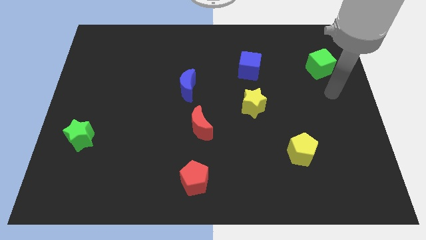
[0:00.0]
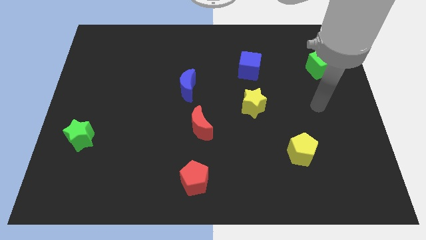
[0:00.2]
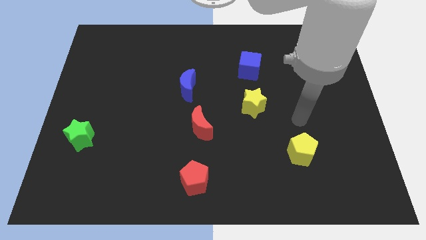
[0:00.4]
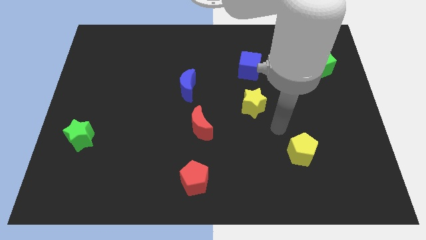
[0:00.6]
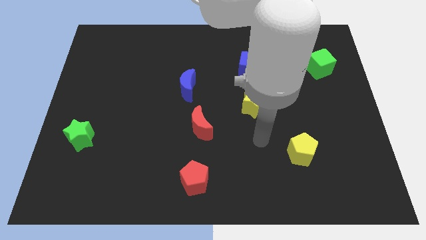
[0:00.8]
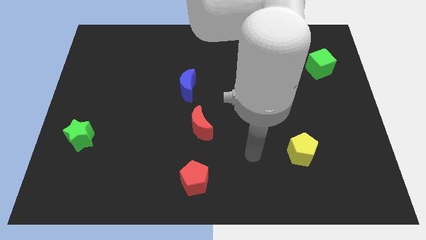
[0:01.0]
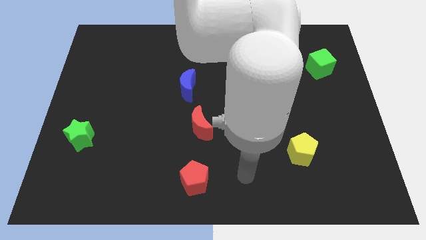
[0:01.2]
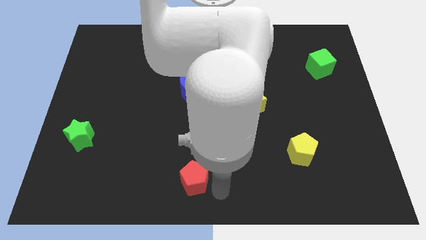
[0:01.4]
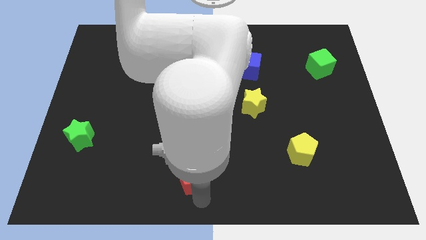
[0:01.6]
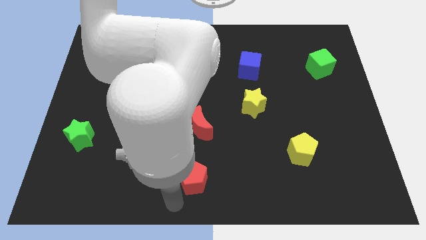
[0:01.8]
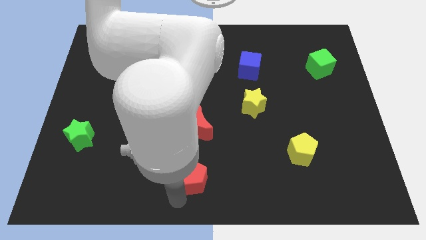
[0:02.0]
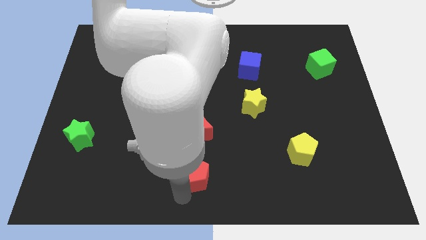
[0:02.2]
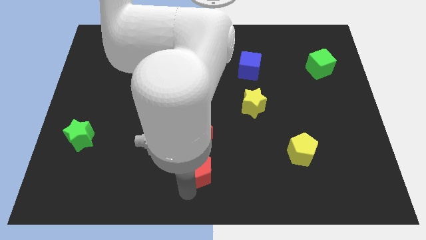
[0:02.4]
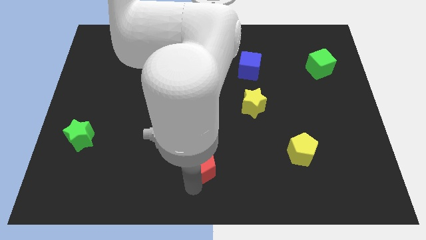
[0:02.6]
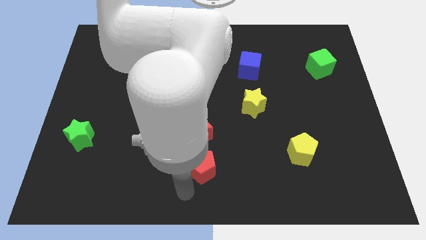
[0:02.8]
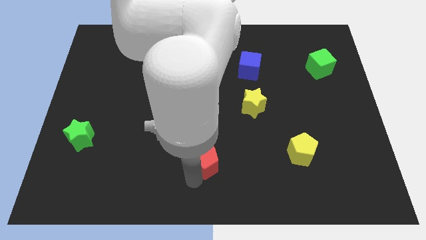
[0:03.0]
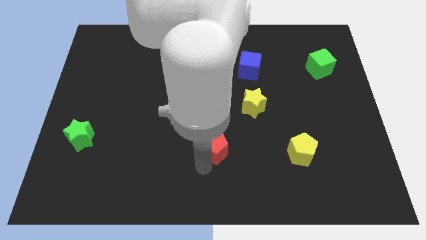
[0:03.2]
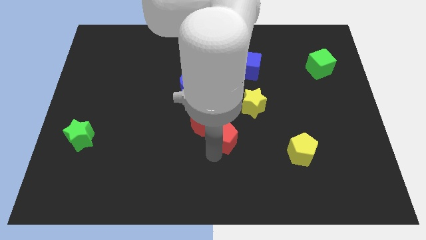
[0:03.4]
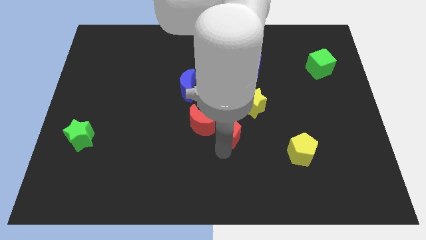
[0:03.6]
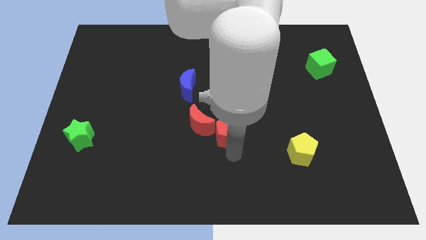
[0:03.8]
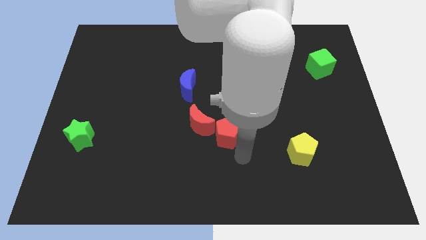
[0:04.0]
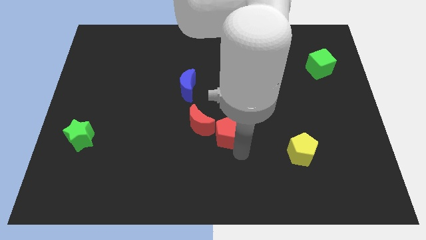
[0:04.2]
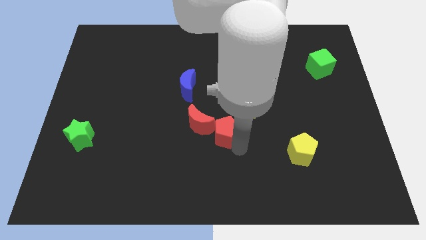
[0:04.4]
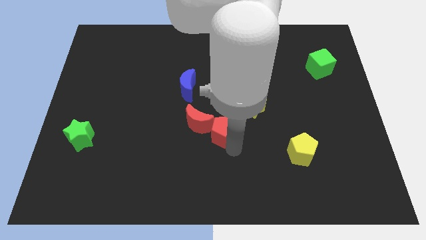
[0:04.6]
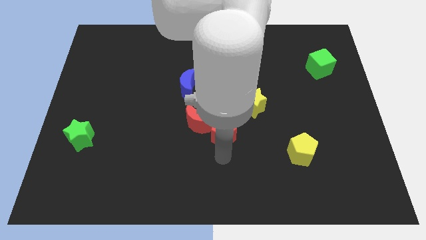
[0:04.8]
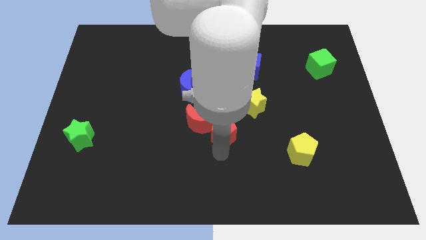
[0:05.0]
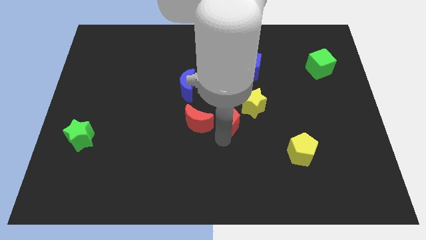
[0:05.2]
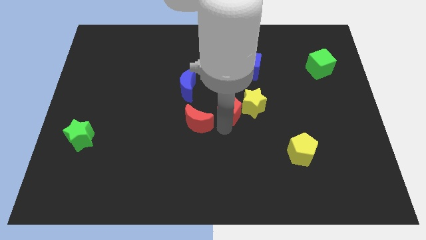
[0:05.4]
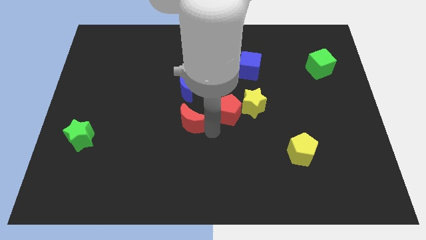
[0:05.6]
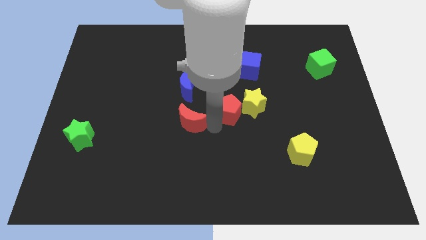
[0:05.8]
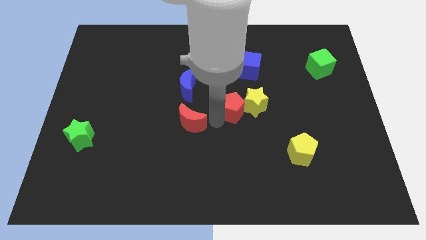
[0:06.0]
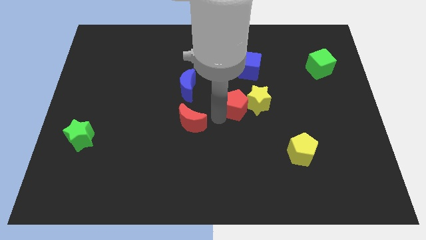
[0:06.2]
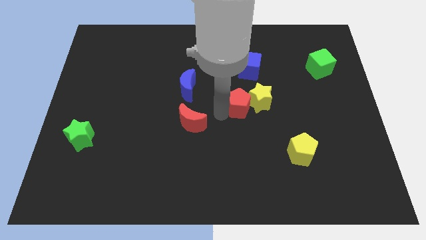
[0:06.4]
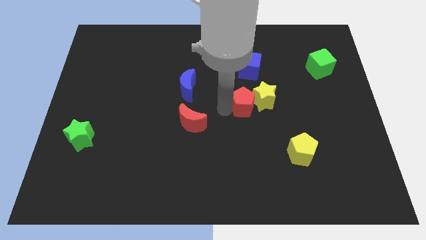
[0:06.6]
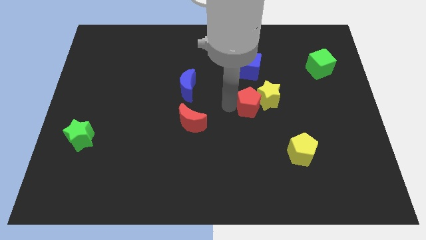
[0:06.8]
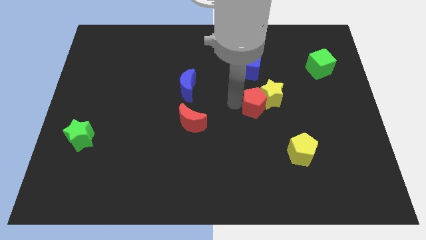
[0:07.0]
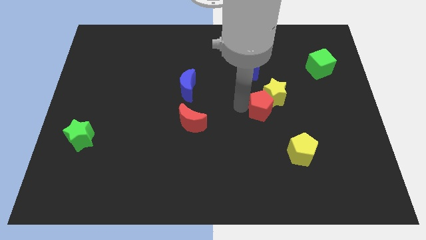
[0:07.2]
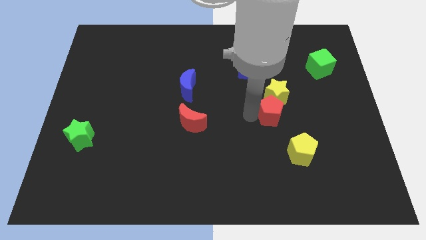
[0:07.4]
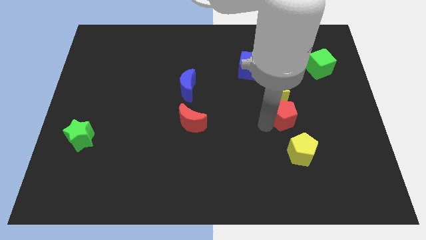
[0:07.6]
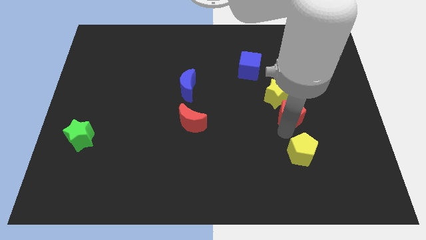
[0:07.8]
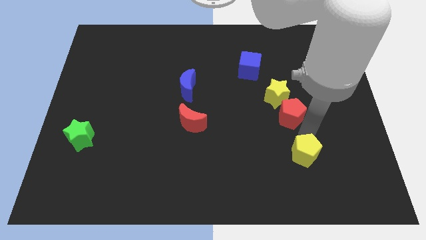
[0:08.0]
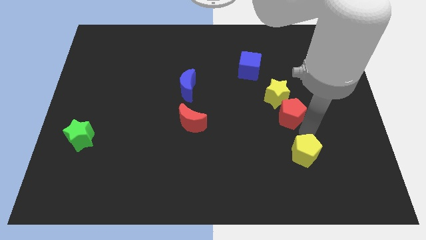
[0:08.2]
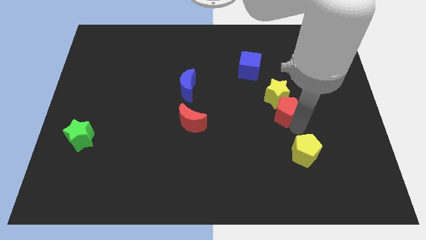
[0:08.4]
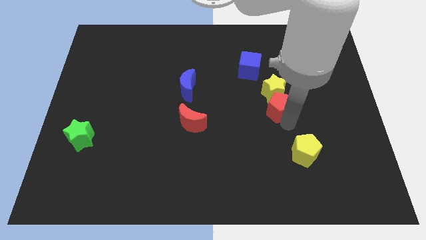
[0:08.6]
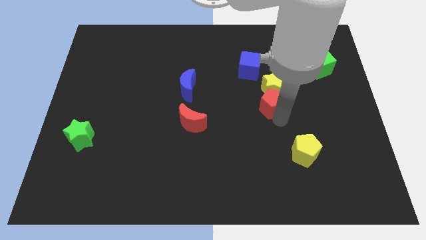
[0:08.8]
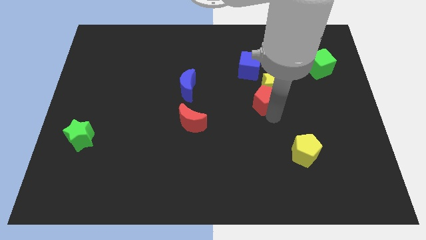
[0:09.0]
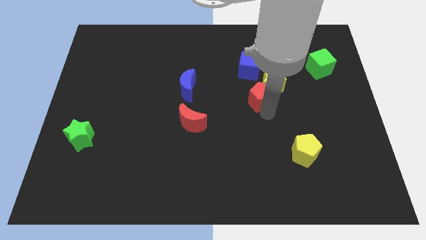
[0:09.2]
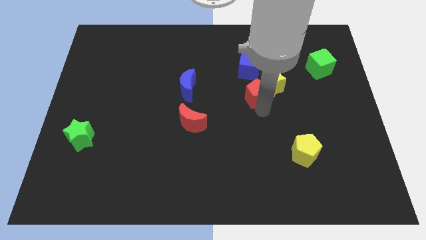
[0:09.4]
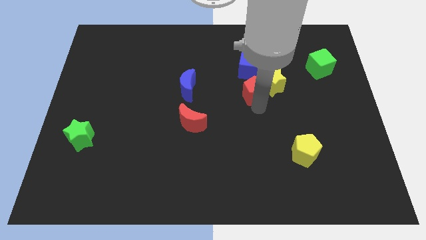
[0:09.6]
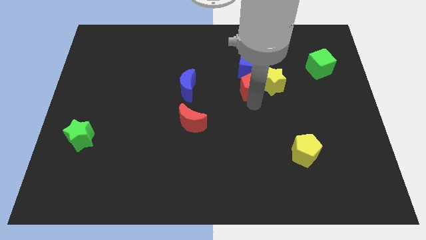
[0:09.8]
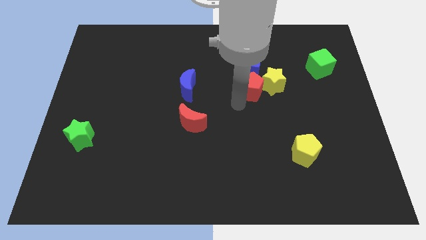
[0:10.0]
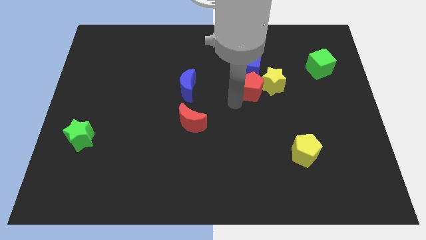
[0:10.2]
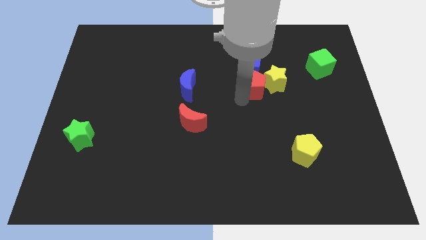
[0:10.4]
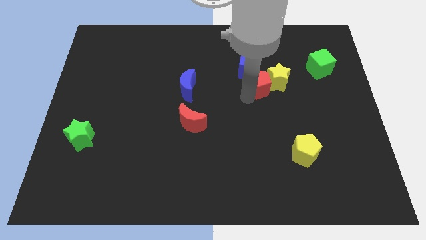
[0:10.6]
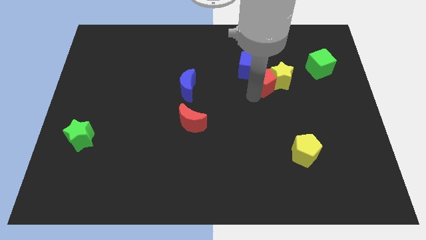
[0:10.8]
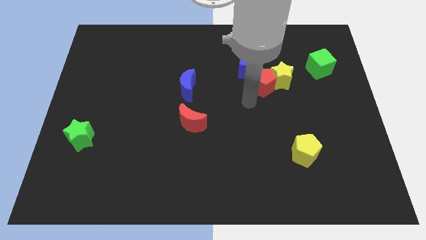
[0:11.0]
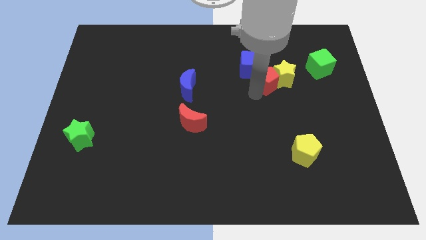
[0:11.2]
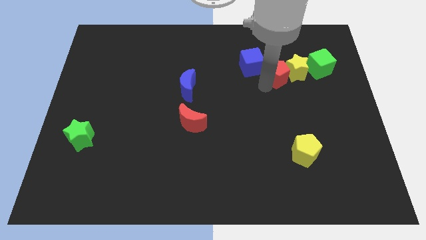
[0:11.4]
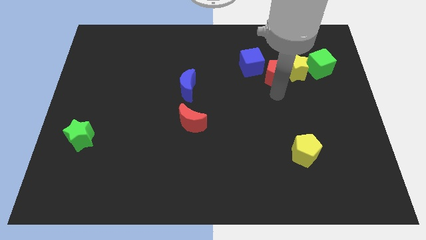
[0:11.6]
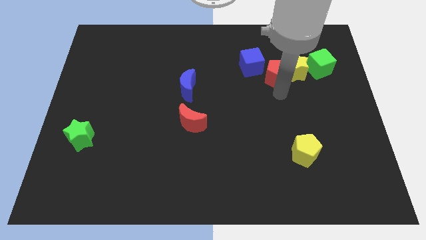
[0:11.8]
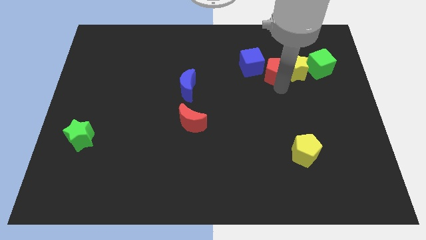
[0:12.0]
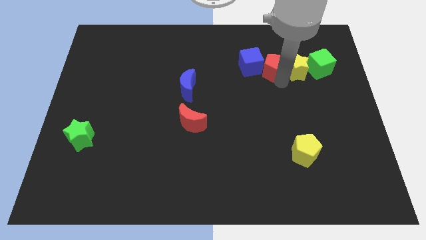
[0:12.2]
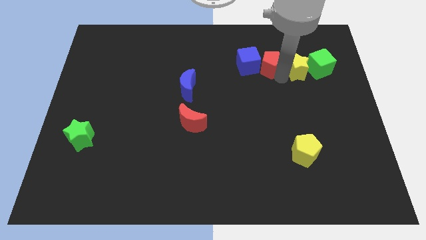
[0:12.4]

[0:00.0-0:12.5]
slide the red pentagon to the top right side of the blue cube

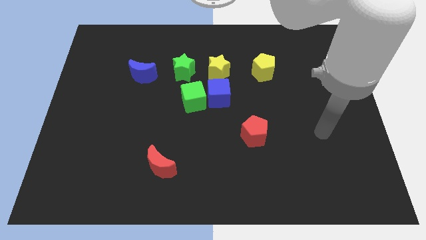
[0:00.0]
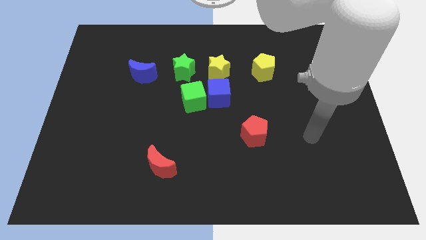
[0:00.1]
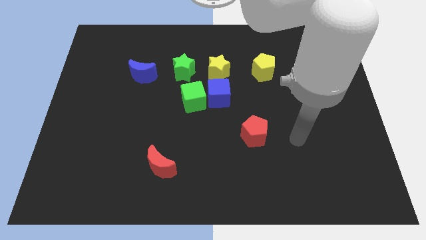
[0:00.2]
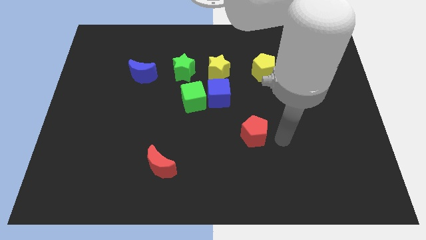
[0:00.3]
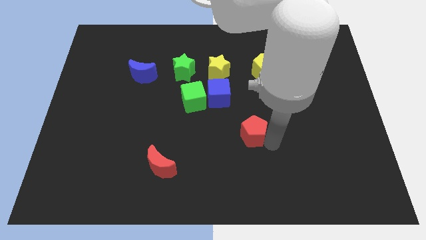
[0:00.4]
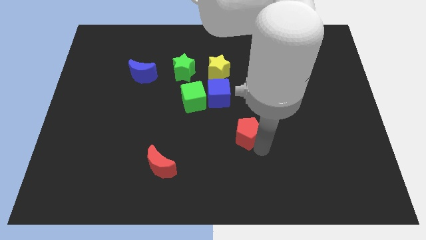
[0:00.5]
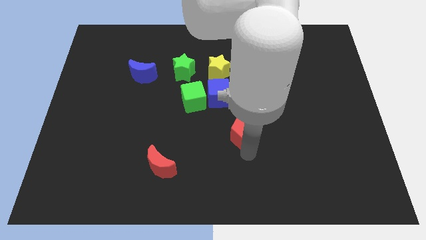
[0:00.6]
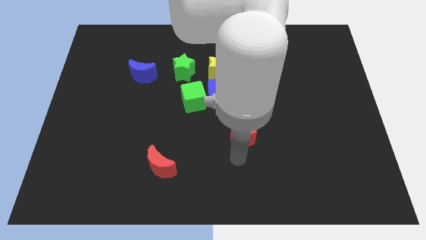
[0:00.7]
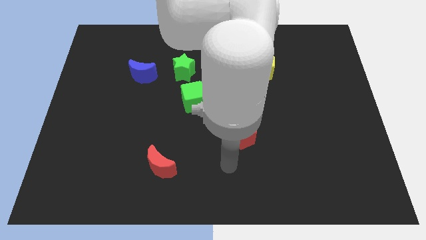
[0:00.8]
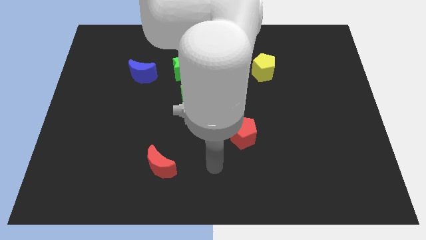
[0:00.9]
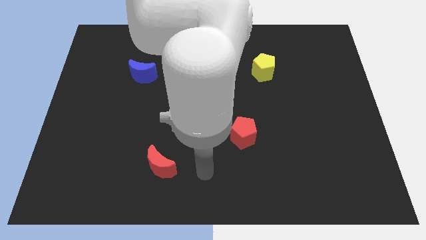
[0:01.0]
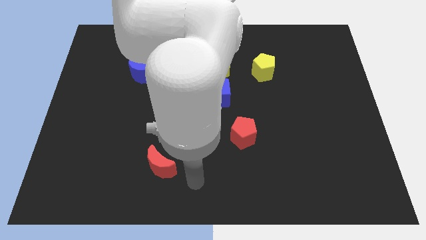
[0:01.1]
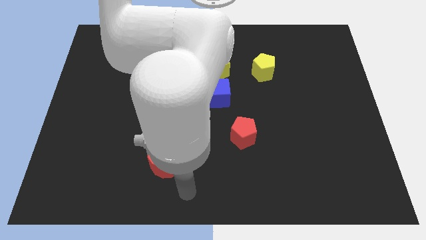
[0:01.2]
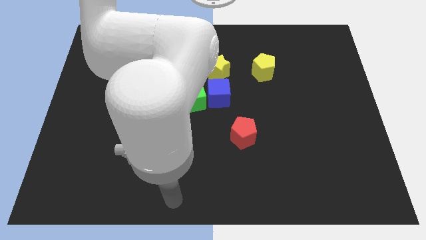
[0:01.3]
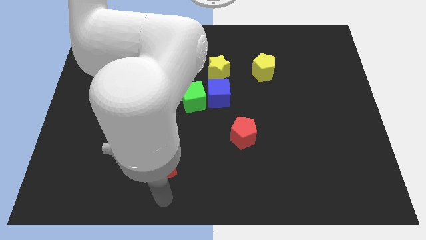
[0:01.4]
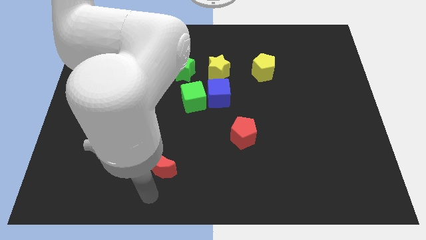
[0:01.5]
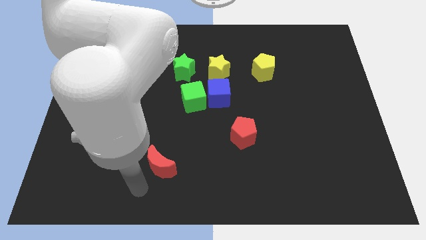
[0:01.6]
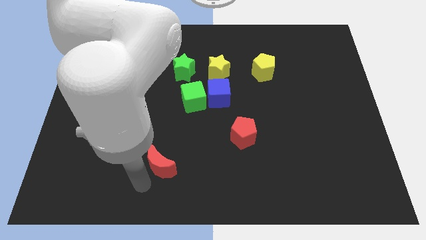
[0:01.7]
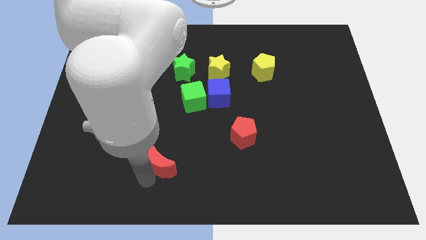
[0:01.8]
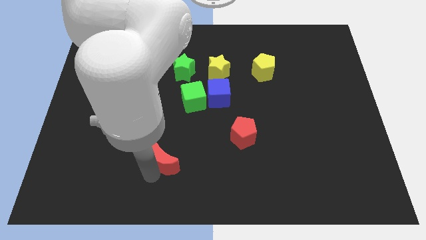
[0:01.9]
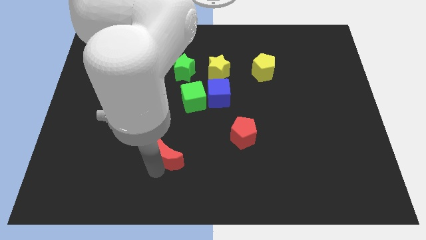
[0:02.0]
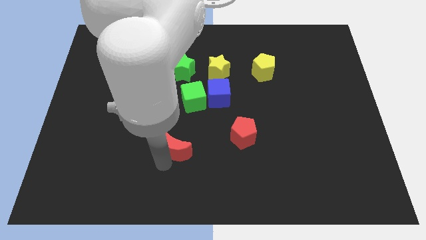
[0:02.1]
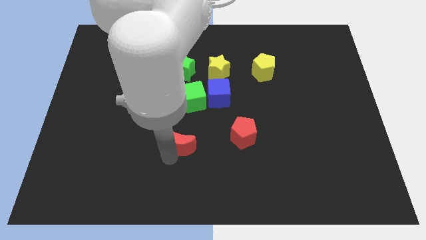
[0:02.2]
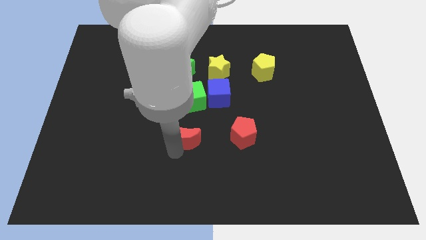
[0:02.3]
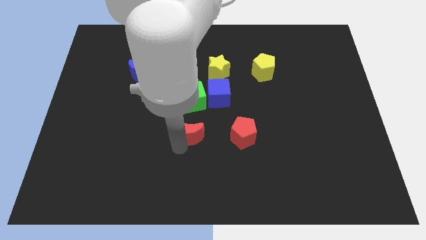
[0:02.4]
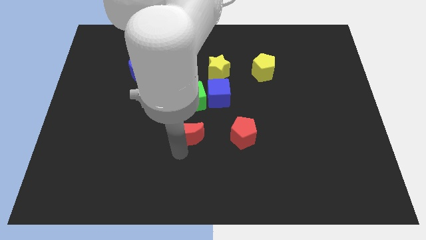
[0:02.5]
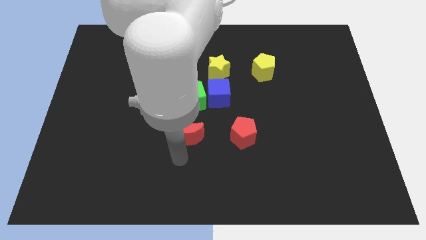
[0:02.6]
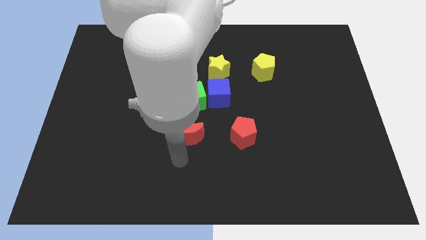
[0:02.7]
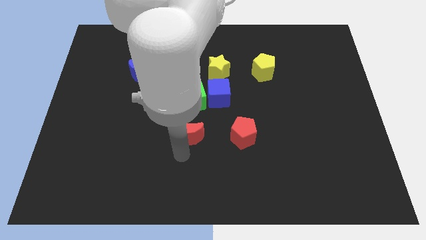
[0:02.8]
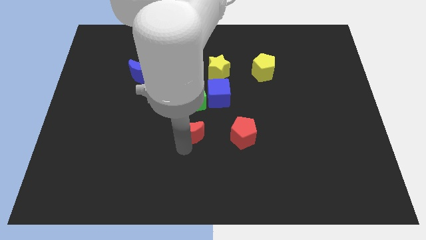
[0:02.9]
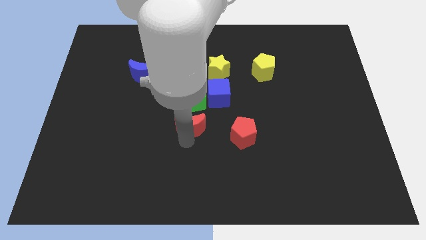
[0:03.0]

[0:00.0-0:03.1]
put the red moon to the bottom left of the blue cube
